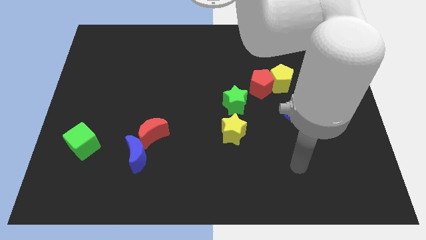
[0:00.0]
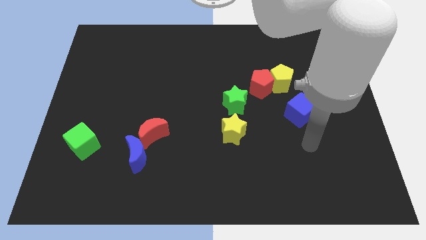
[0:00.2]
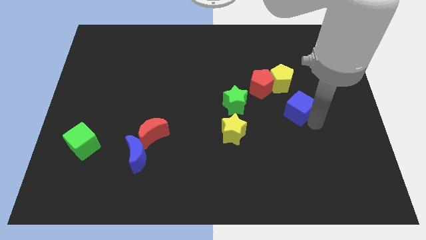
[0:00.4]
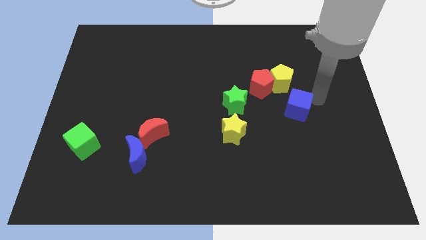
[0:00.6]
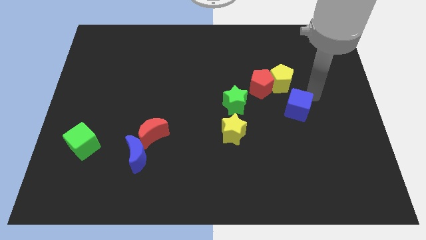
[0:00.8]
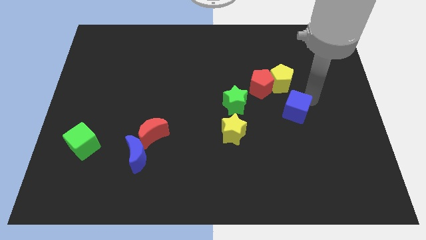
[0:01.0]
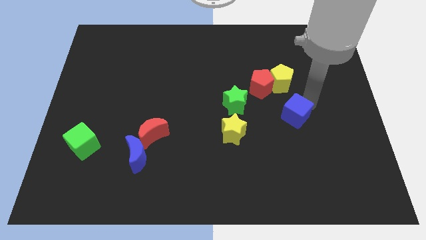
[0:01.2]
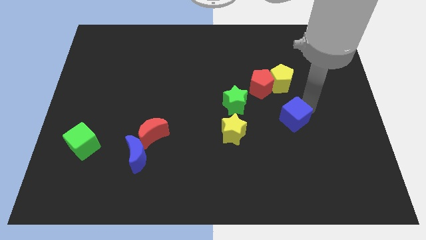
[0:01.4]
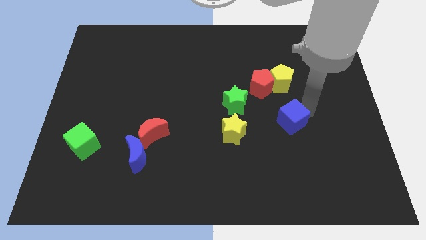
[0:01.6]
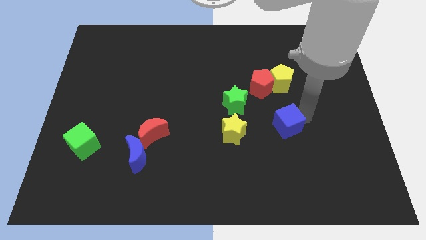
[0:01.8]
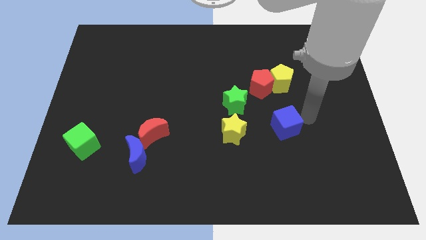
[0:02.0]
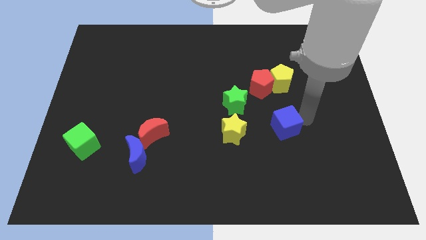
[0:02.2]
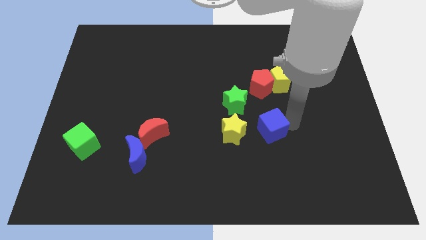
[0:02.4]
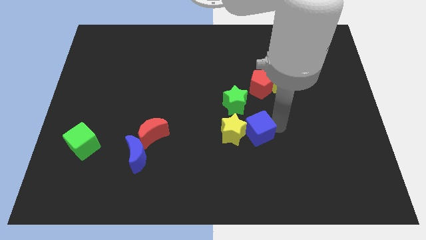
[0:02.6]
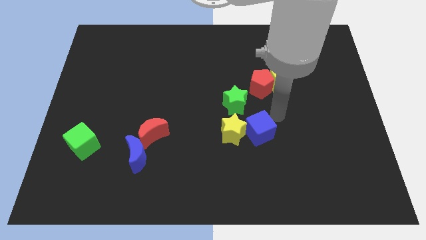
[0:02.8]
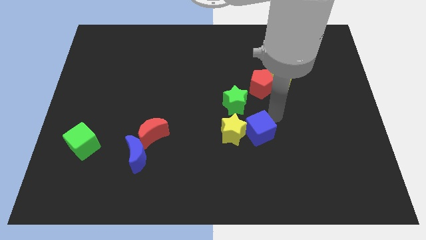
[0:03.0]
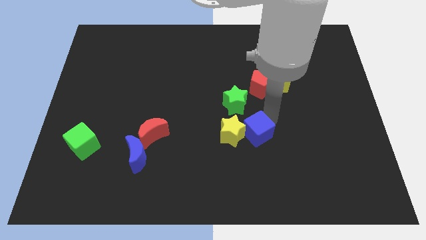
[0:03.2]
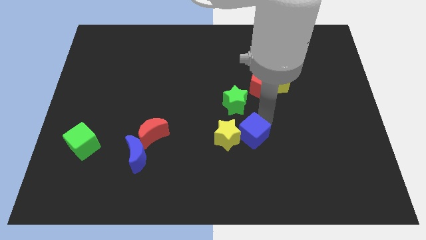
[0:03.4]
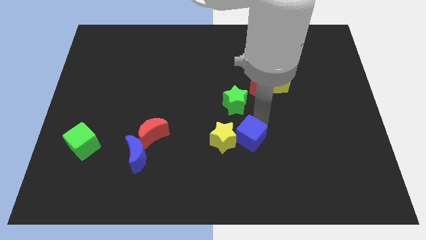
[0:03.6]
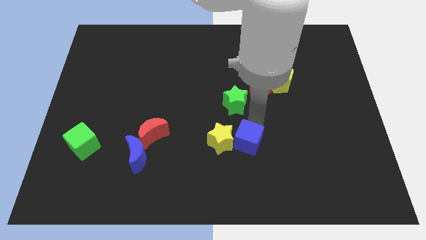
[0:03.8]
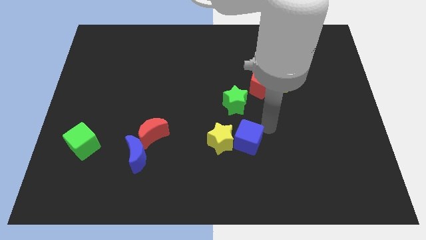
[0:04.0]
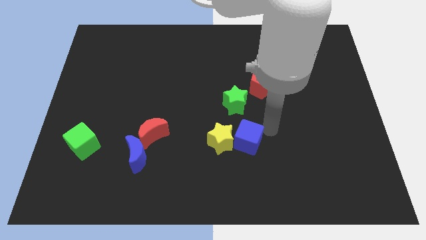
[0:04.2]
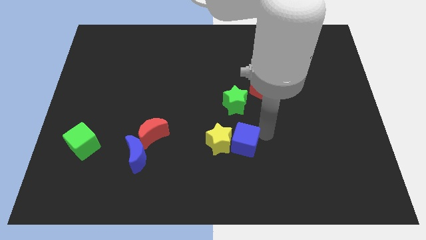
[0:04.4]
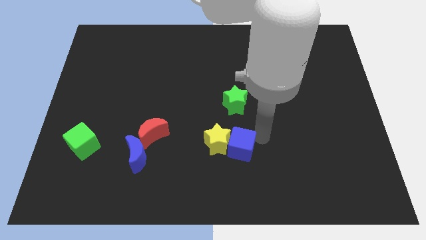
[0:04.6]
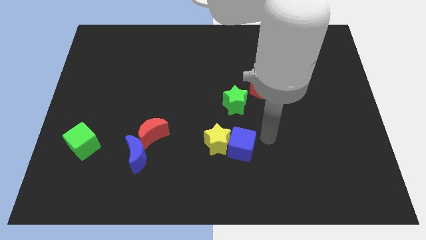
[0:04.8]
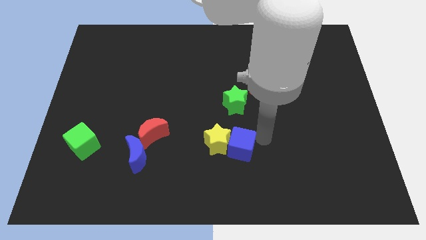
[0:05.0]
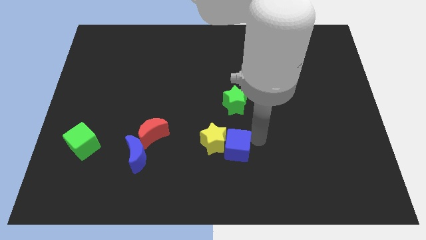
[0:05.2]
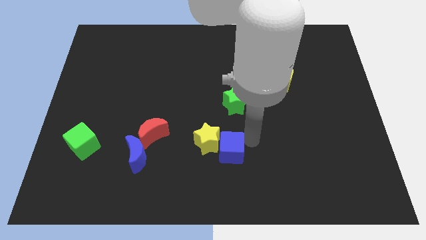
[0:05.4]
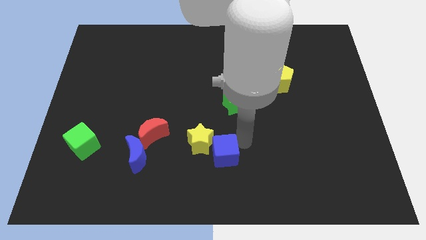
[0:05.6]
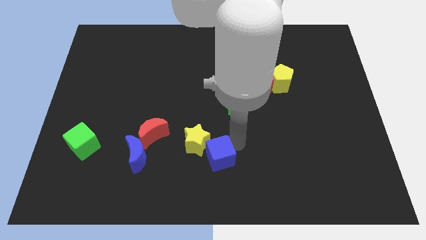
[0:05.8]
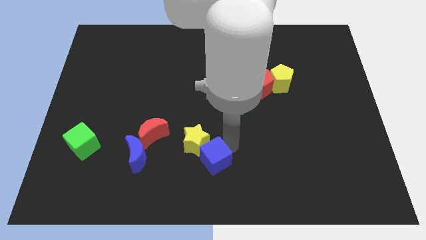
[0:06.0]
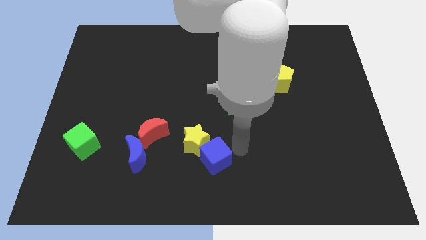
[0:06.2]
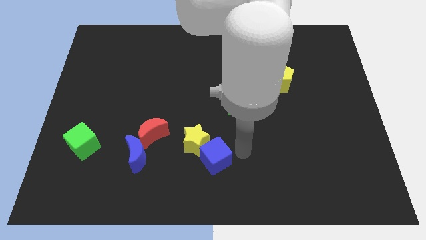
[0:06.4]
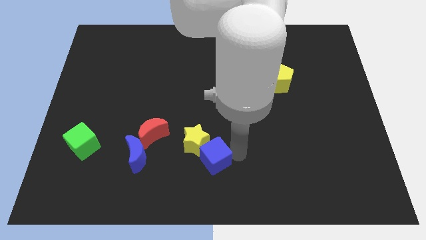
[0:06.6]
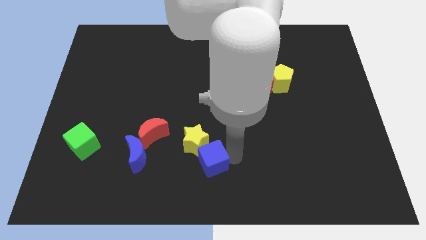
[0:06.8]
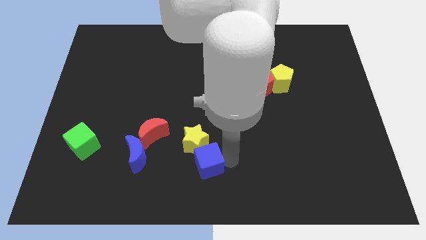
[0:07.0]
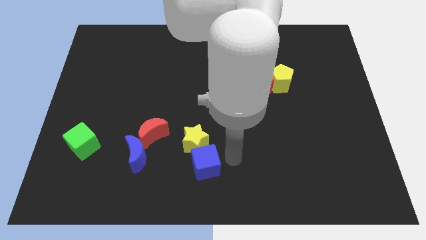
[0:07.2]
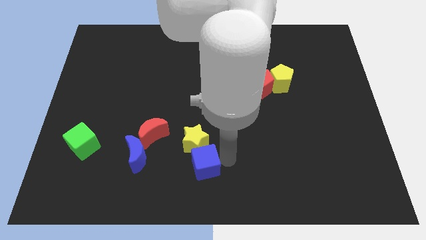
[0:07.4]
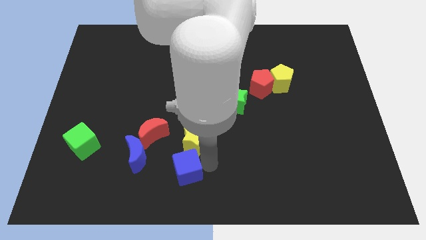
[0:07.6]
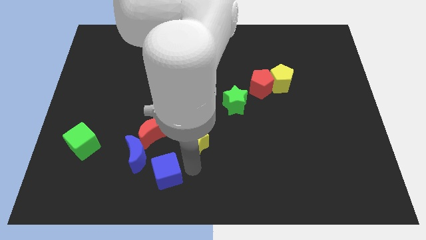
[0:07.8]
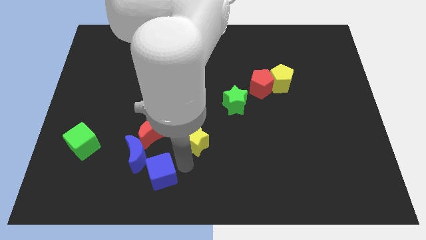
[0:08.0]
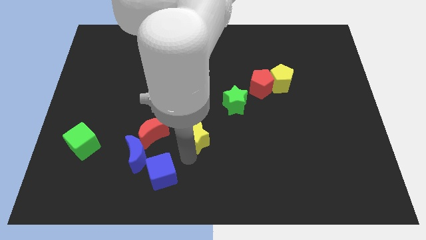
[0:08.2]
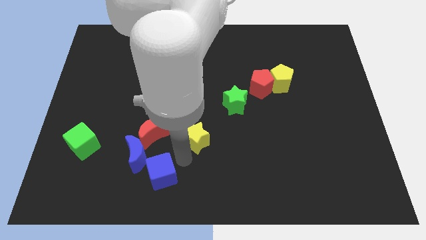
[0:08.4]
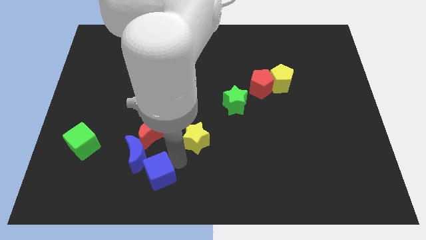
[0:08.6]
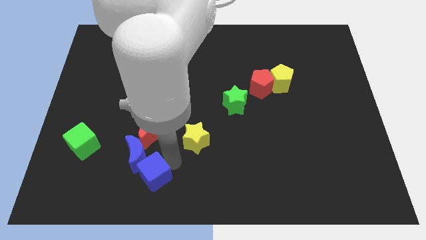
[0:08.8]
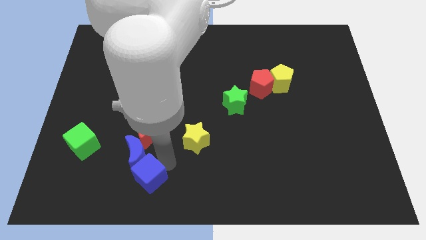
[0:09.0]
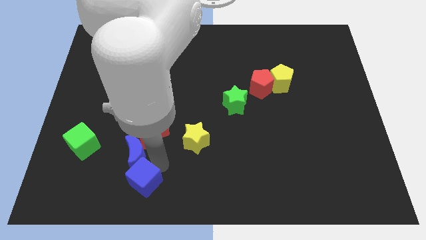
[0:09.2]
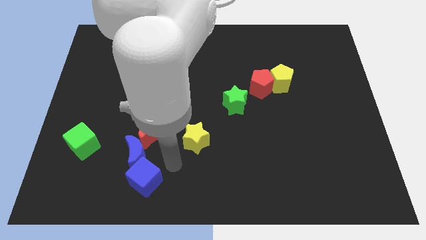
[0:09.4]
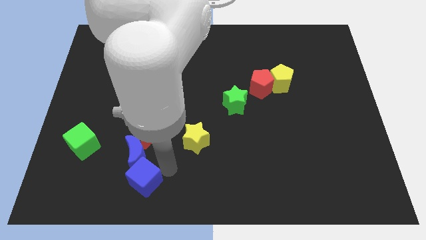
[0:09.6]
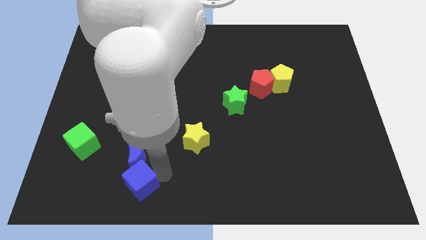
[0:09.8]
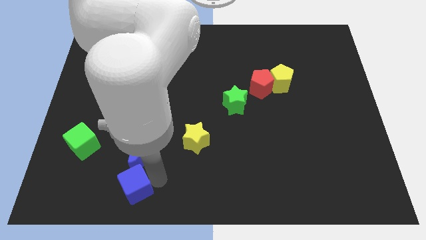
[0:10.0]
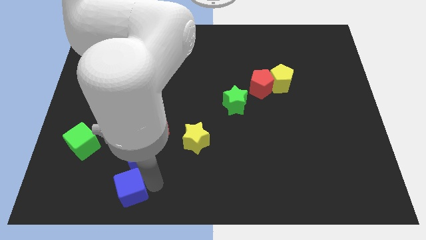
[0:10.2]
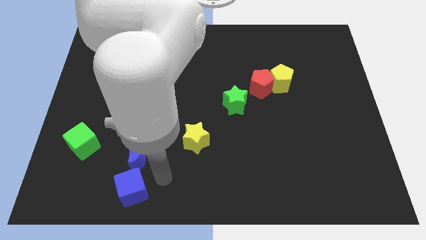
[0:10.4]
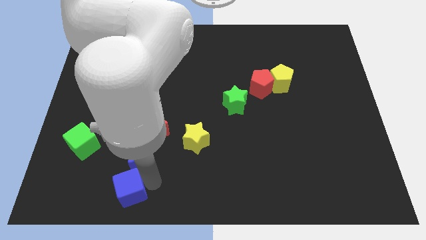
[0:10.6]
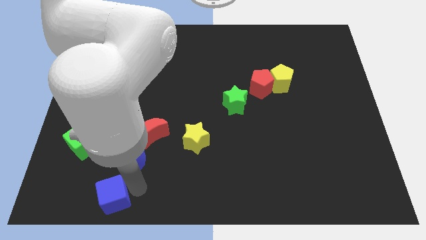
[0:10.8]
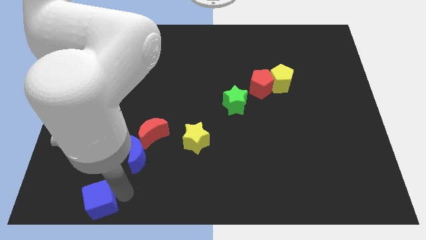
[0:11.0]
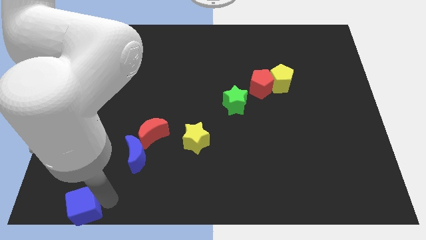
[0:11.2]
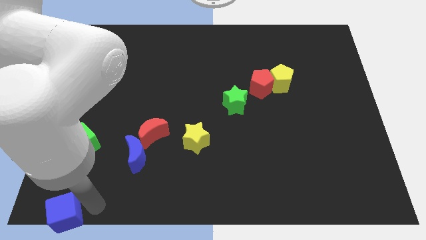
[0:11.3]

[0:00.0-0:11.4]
put the blue cube to the lower left corner
